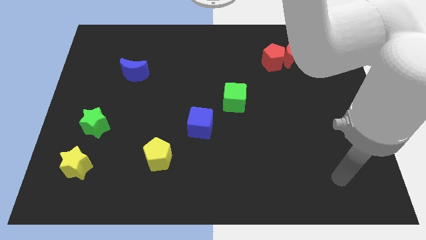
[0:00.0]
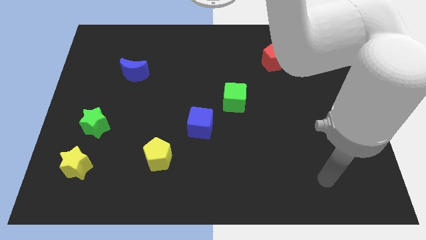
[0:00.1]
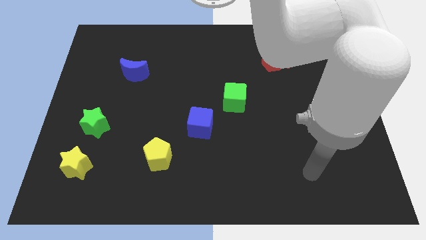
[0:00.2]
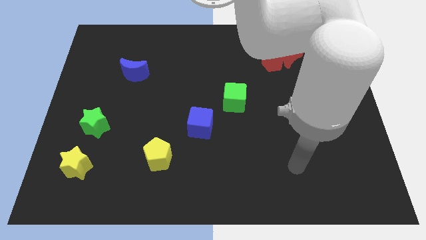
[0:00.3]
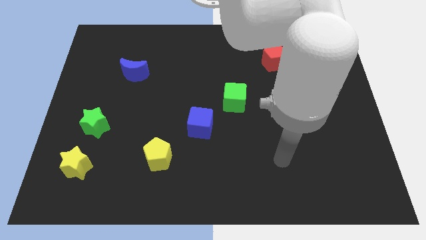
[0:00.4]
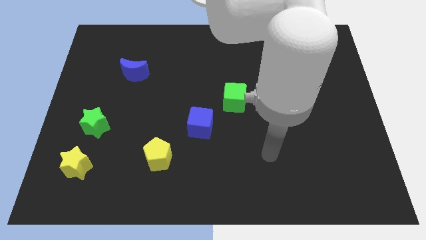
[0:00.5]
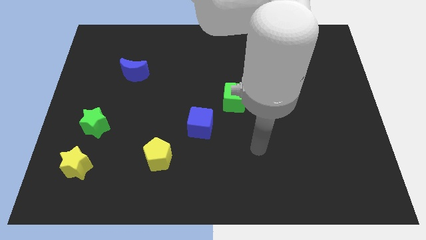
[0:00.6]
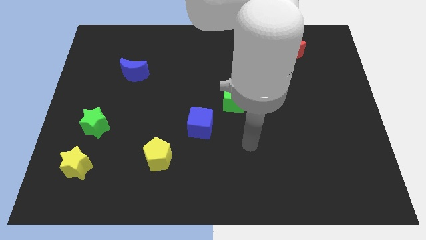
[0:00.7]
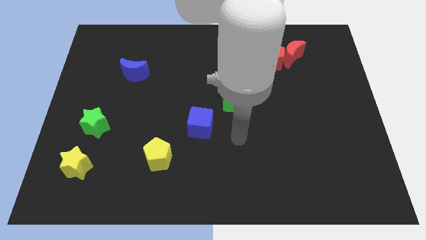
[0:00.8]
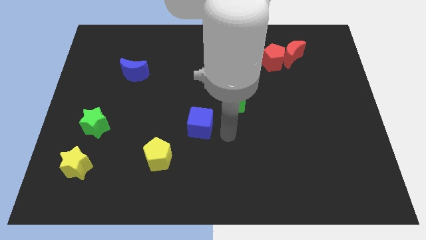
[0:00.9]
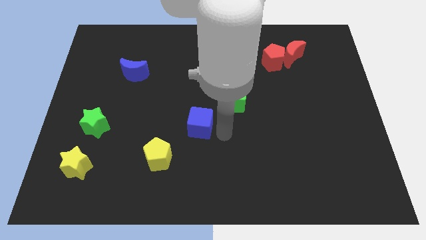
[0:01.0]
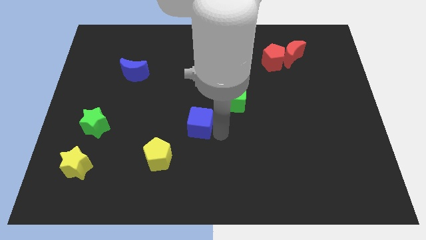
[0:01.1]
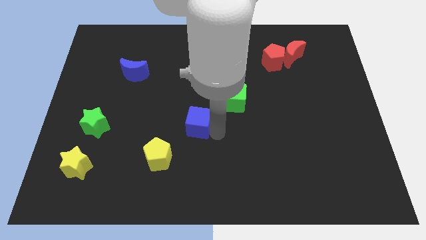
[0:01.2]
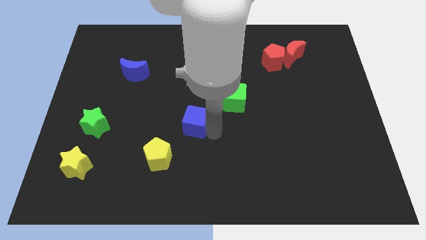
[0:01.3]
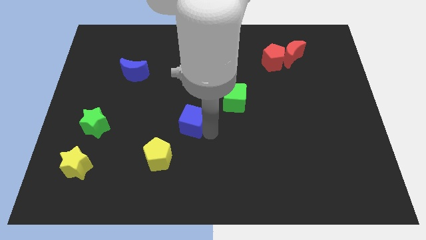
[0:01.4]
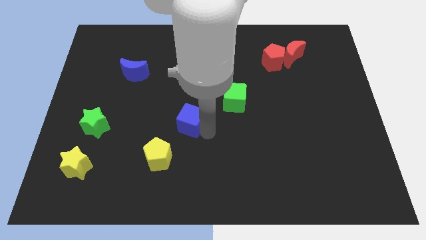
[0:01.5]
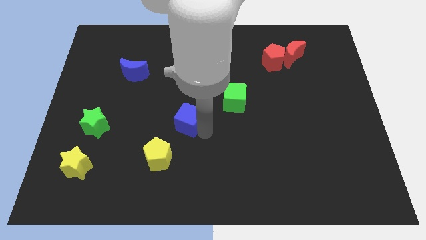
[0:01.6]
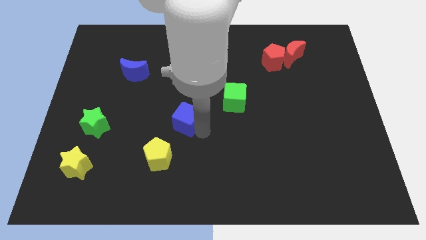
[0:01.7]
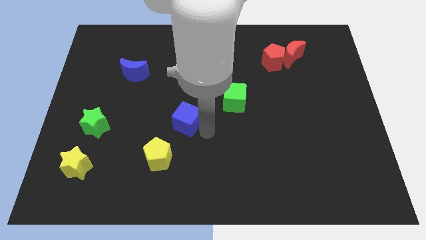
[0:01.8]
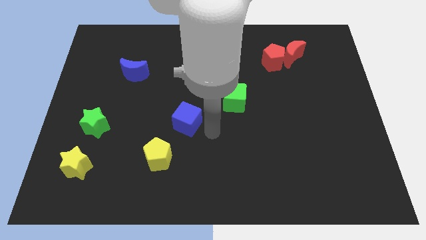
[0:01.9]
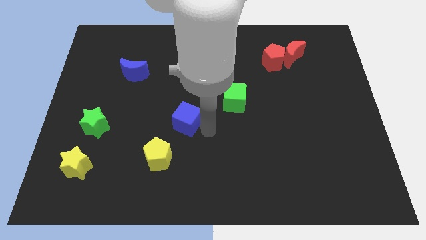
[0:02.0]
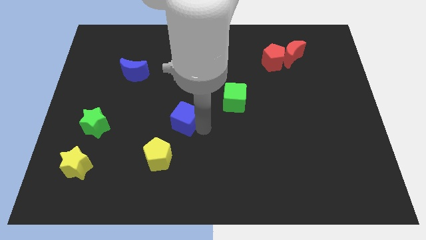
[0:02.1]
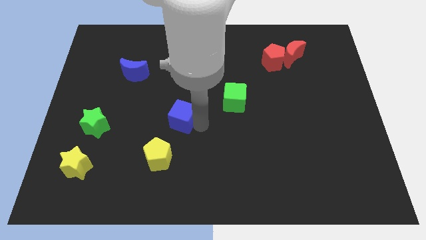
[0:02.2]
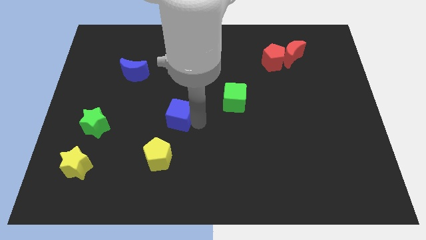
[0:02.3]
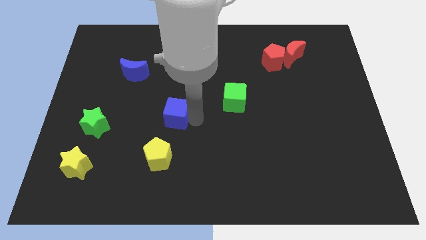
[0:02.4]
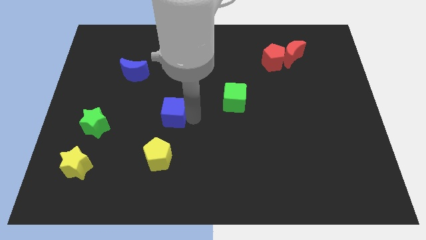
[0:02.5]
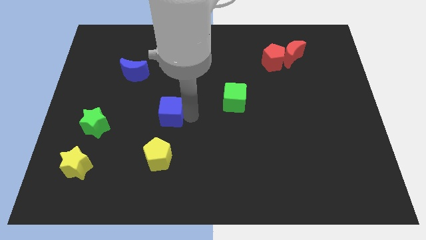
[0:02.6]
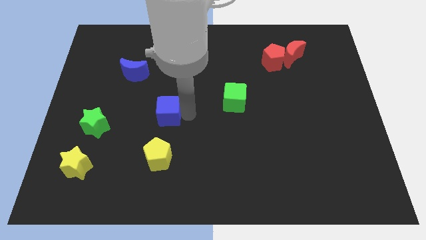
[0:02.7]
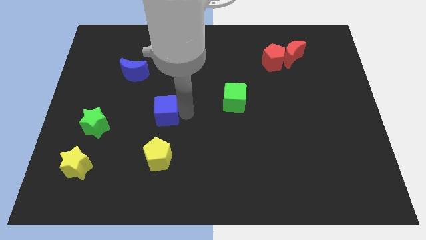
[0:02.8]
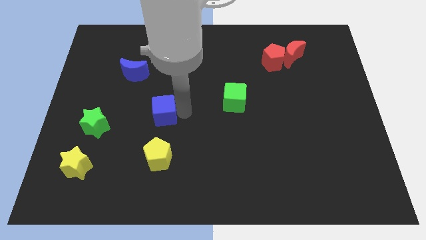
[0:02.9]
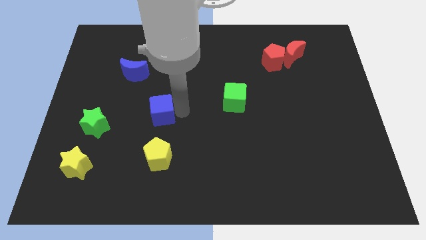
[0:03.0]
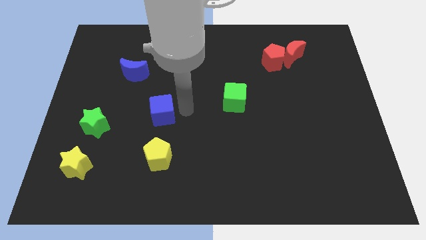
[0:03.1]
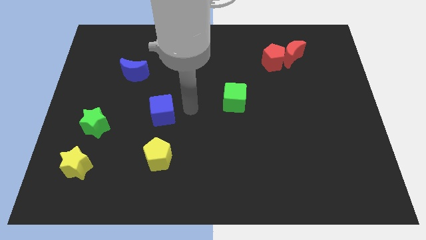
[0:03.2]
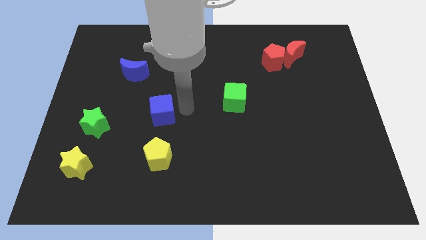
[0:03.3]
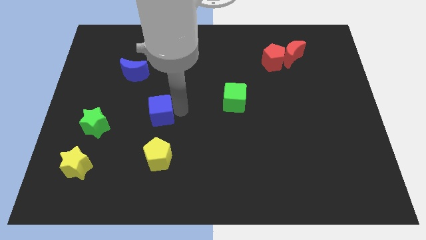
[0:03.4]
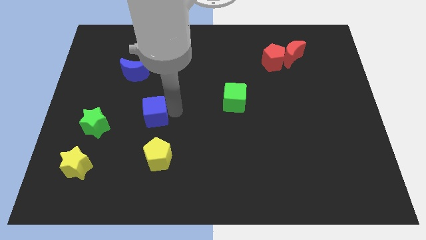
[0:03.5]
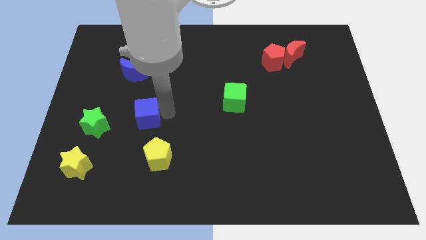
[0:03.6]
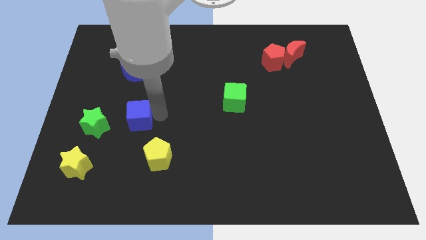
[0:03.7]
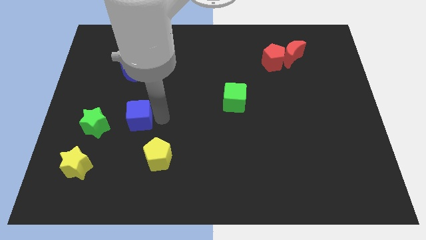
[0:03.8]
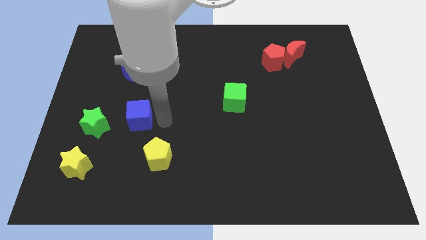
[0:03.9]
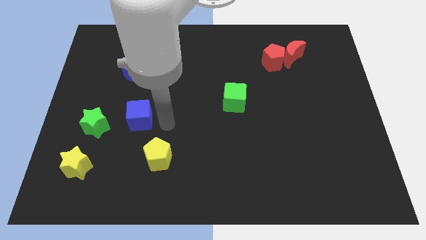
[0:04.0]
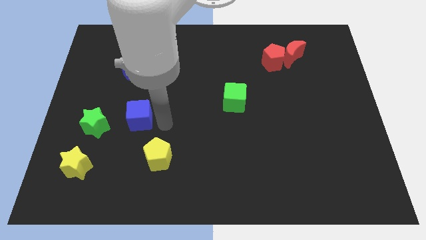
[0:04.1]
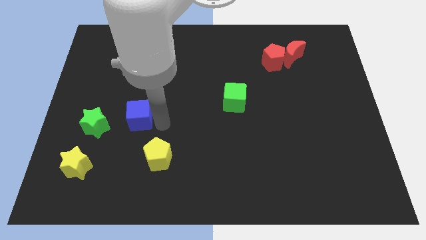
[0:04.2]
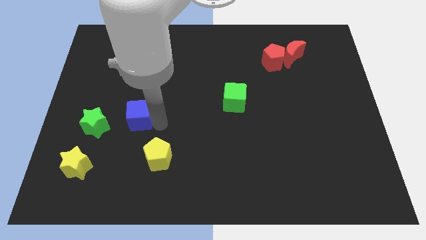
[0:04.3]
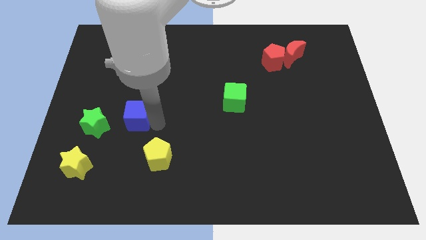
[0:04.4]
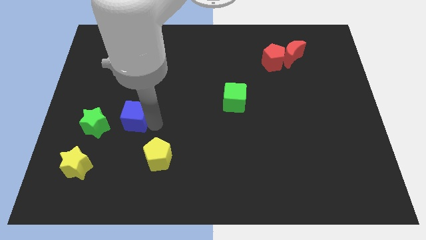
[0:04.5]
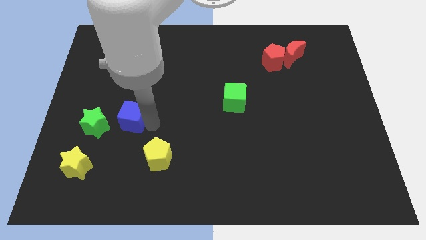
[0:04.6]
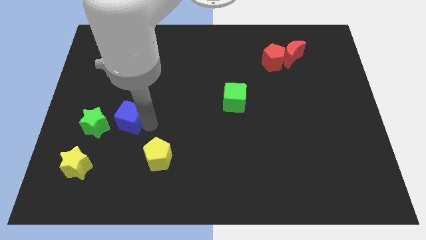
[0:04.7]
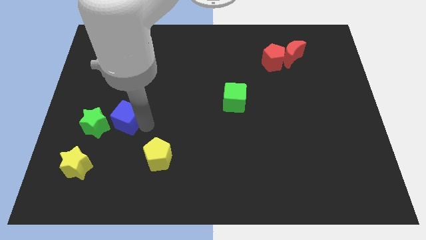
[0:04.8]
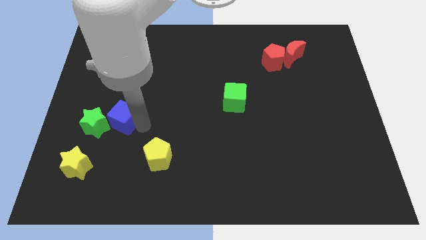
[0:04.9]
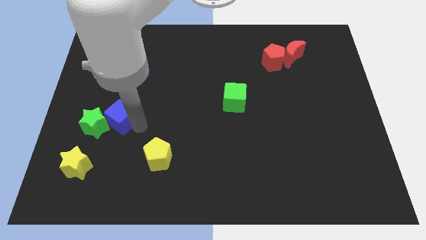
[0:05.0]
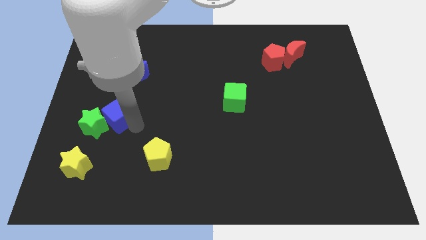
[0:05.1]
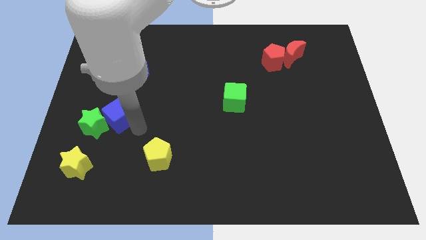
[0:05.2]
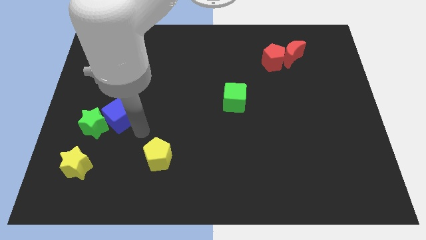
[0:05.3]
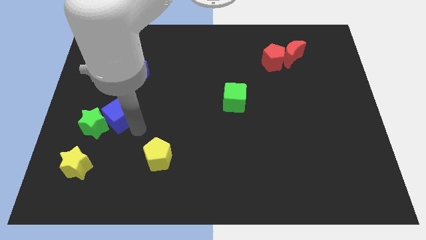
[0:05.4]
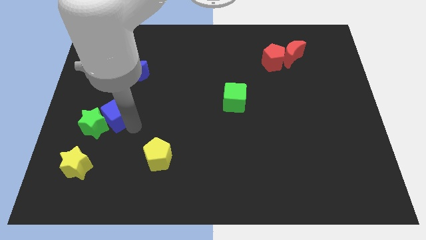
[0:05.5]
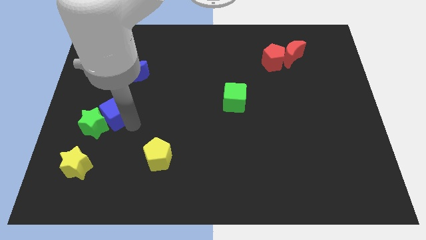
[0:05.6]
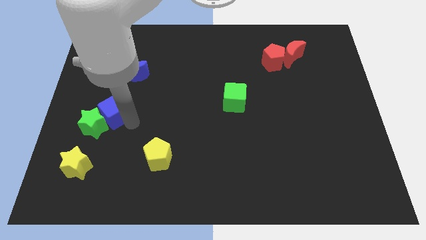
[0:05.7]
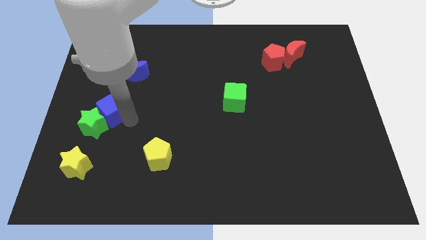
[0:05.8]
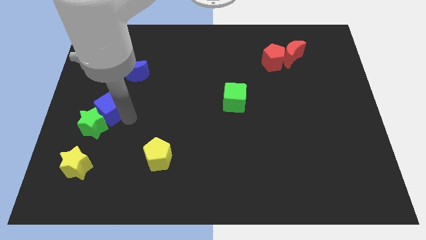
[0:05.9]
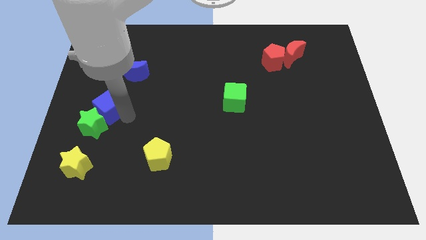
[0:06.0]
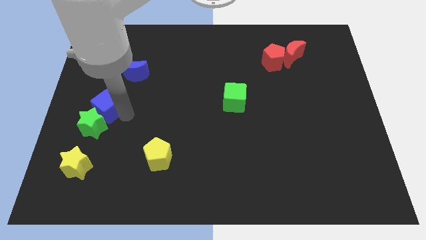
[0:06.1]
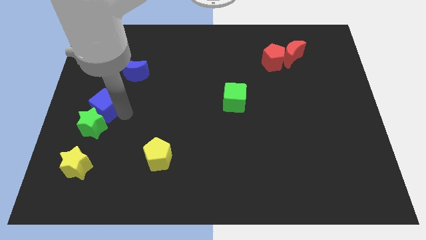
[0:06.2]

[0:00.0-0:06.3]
slide the blue cube to the center left

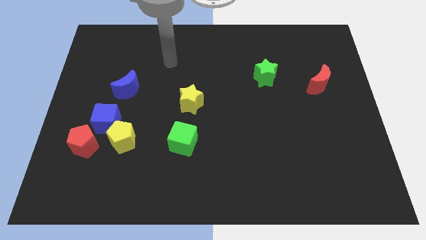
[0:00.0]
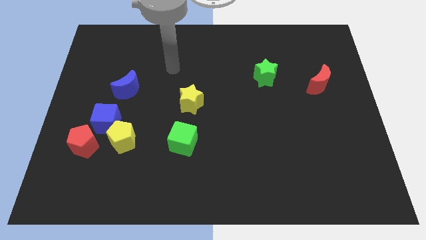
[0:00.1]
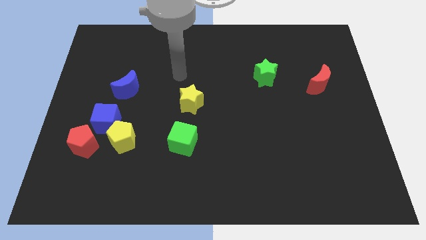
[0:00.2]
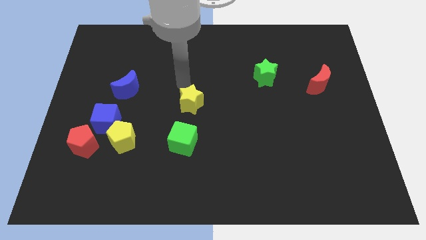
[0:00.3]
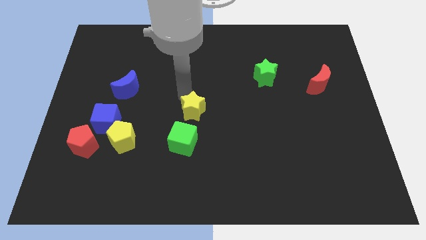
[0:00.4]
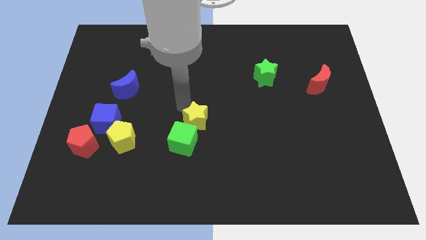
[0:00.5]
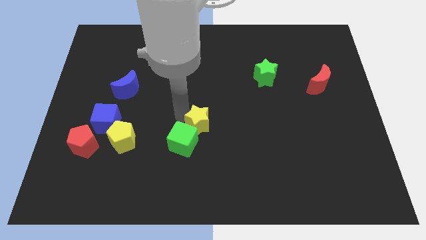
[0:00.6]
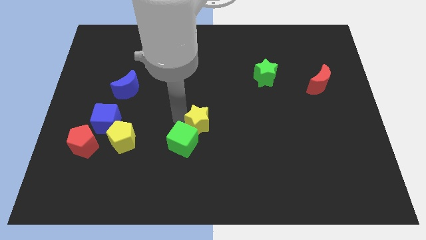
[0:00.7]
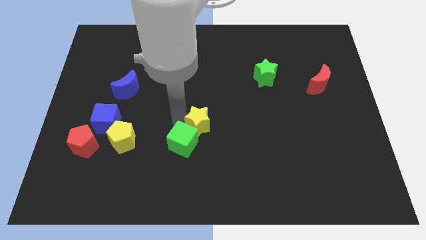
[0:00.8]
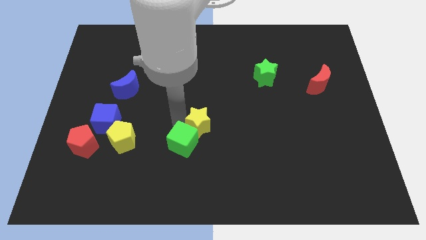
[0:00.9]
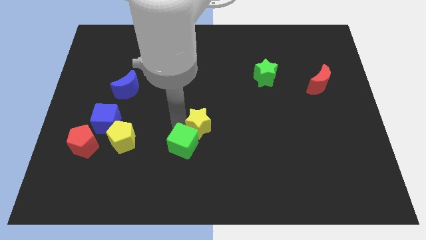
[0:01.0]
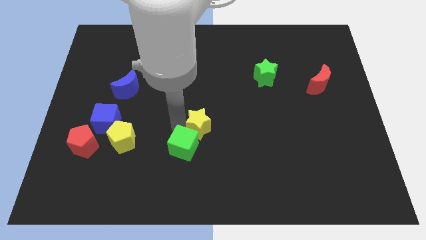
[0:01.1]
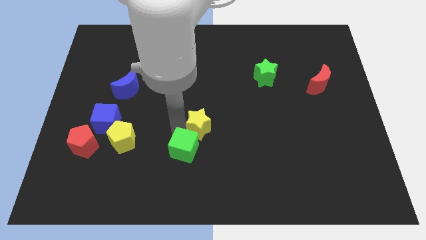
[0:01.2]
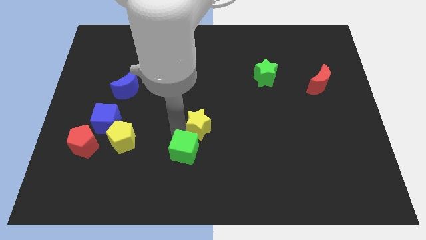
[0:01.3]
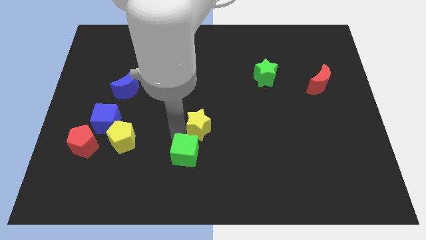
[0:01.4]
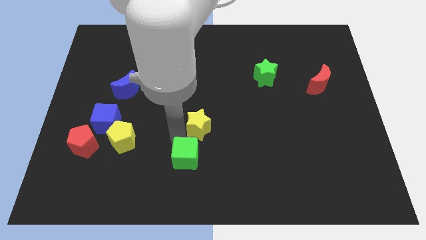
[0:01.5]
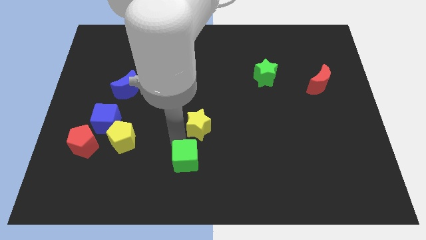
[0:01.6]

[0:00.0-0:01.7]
slide the green cube to the bottom side
